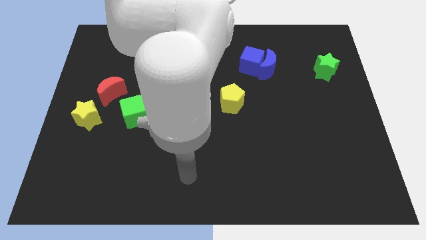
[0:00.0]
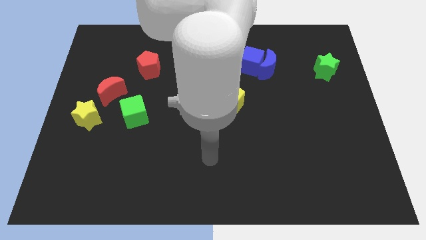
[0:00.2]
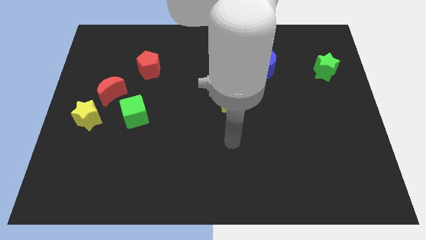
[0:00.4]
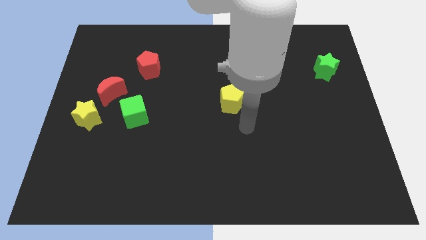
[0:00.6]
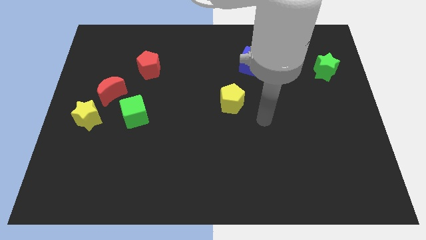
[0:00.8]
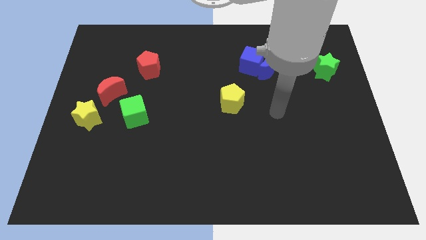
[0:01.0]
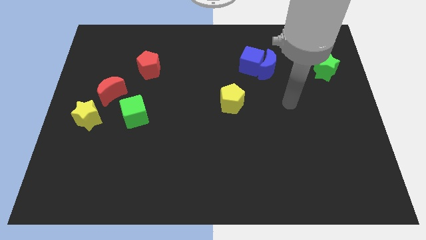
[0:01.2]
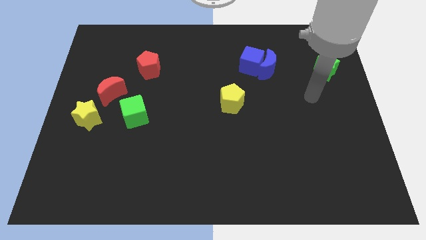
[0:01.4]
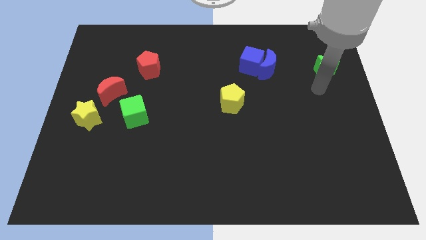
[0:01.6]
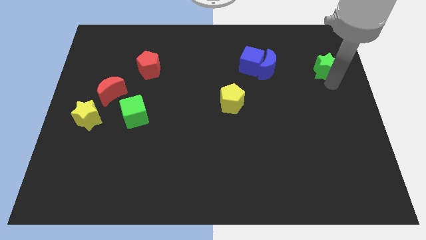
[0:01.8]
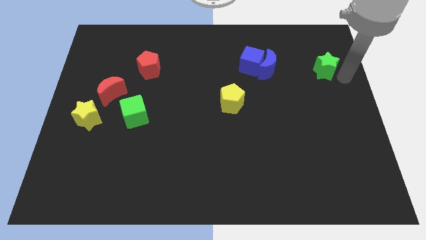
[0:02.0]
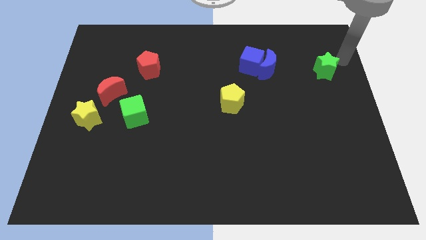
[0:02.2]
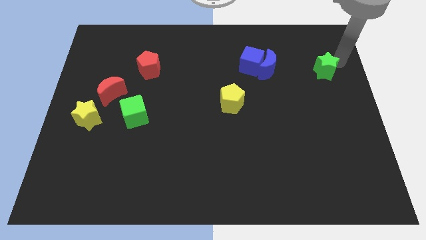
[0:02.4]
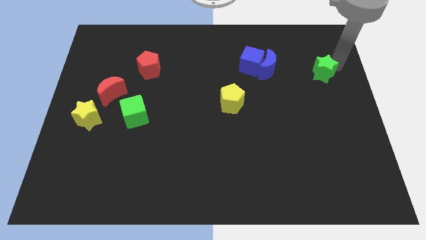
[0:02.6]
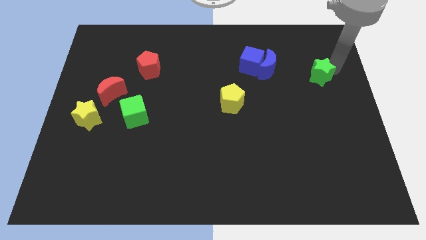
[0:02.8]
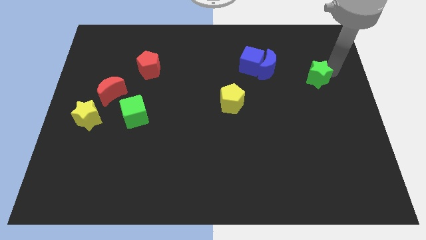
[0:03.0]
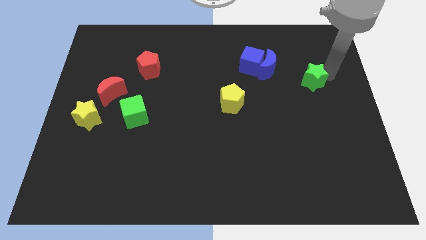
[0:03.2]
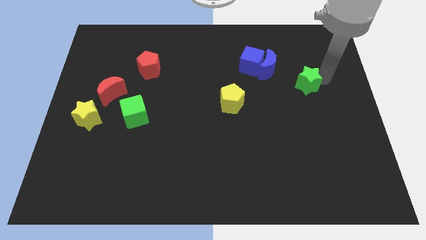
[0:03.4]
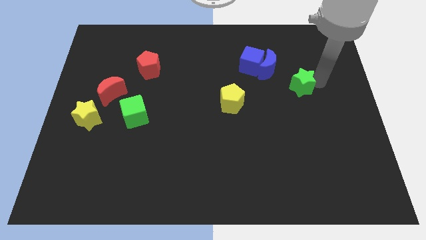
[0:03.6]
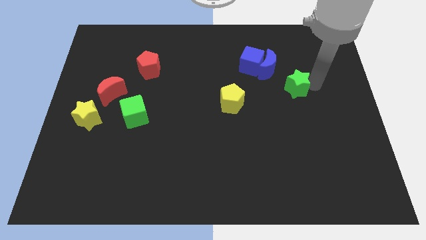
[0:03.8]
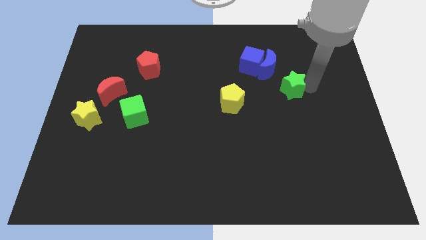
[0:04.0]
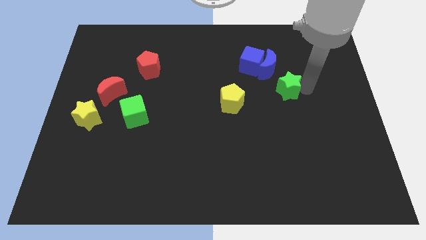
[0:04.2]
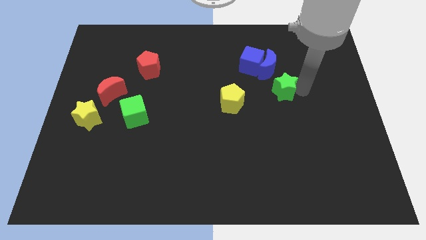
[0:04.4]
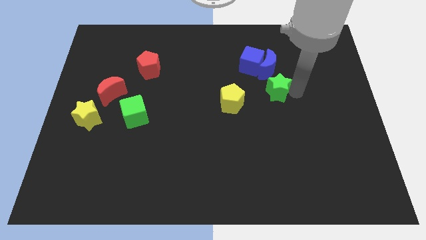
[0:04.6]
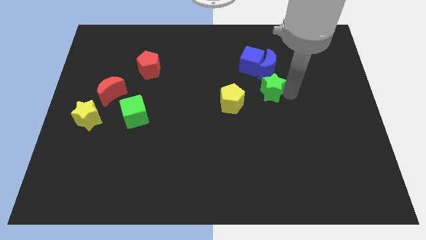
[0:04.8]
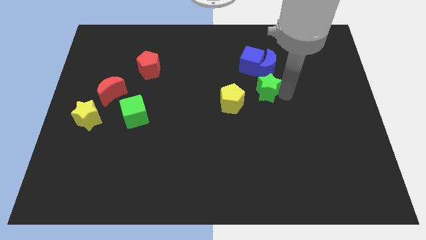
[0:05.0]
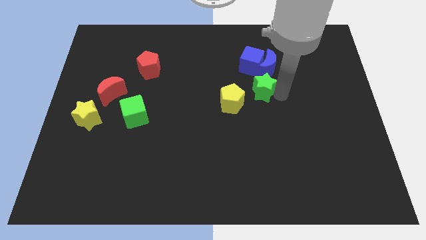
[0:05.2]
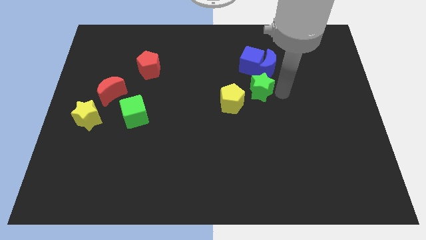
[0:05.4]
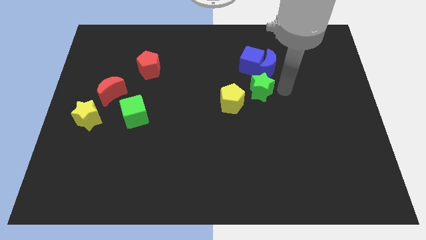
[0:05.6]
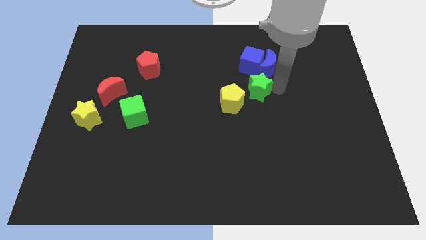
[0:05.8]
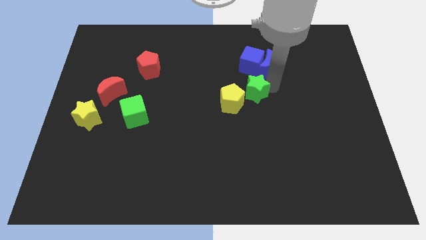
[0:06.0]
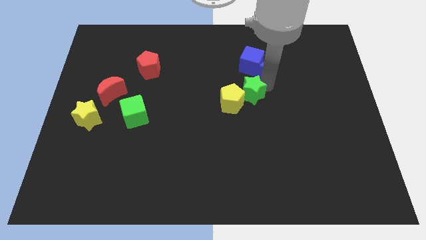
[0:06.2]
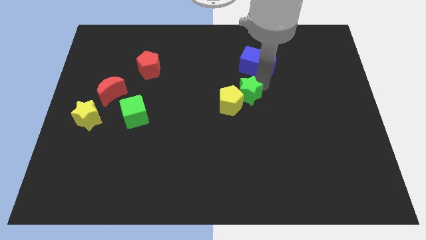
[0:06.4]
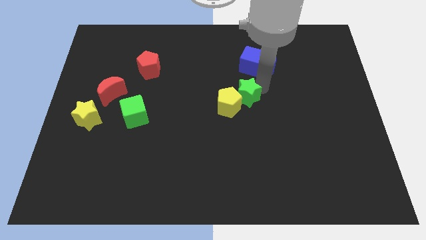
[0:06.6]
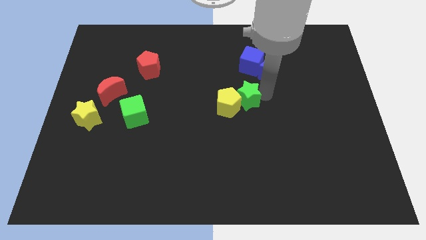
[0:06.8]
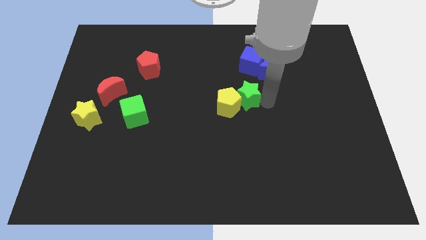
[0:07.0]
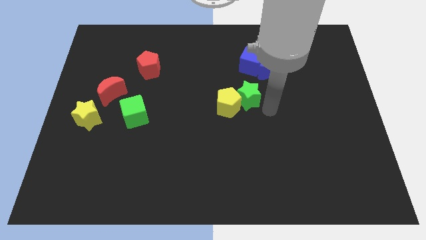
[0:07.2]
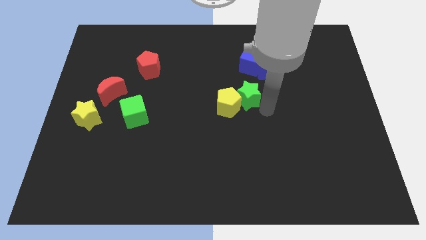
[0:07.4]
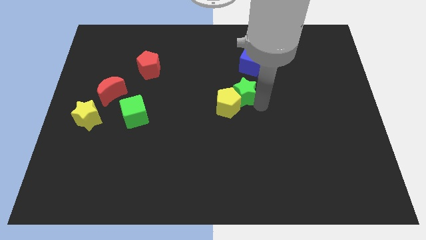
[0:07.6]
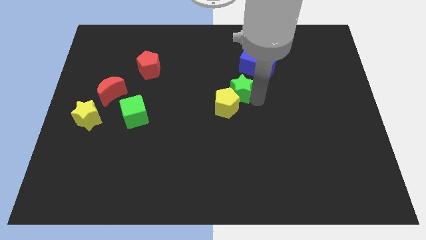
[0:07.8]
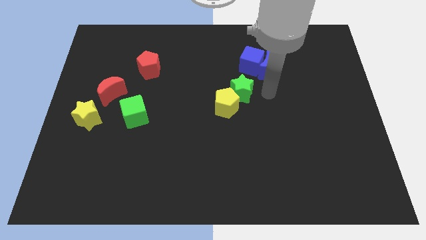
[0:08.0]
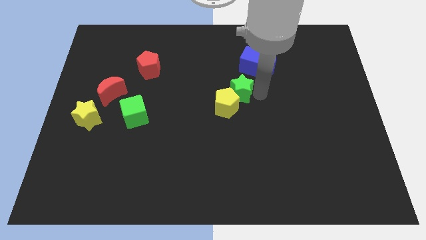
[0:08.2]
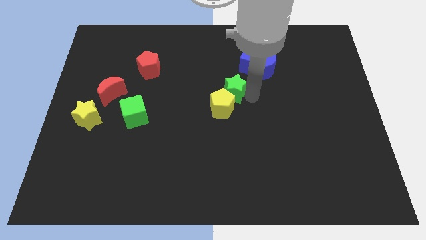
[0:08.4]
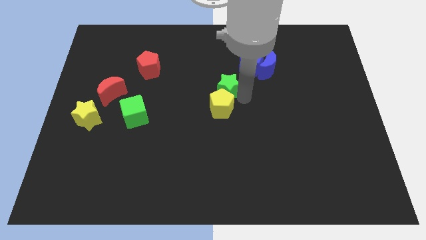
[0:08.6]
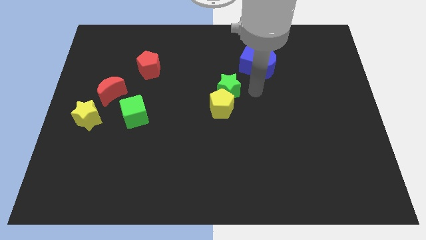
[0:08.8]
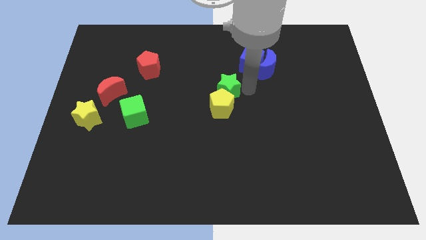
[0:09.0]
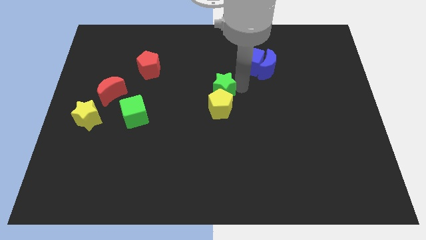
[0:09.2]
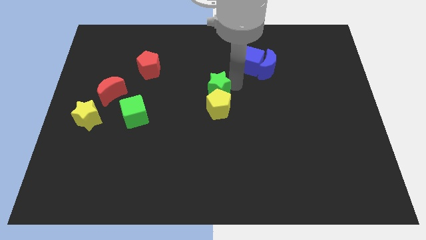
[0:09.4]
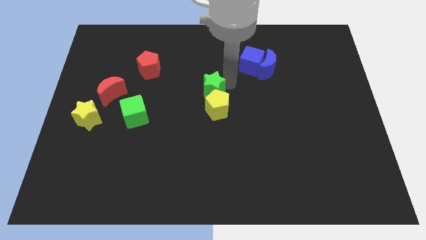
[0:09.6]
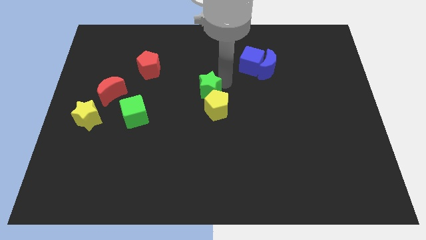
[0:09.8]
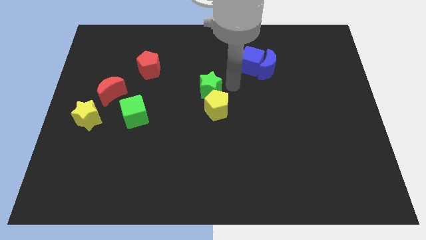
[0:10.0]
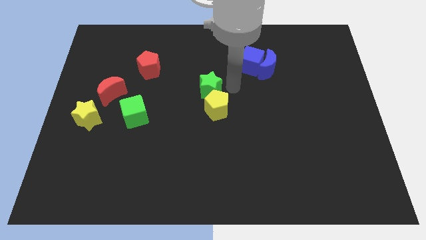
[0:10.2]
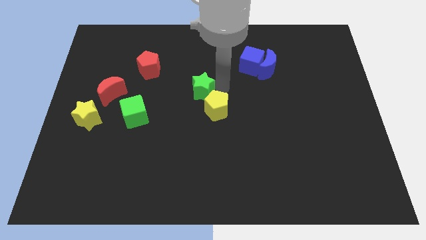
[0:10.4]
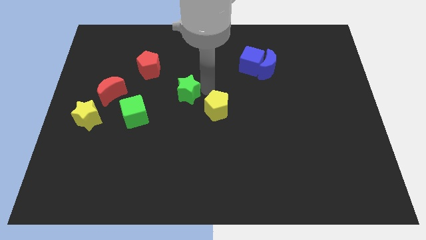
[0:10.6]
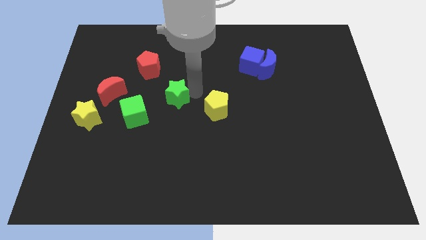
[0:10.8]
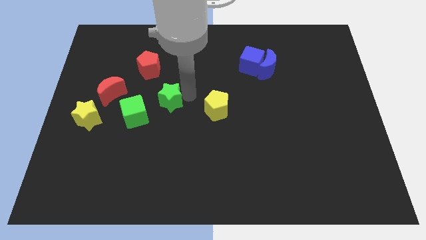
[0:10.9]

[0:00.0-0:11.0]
put the green star to the right of the red moon

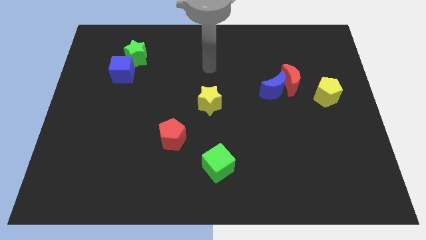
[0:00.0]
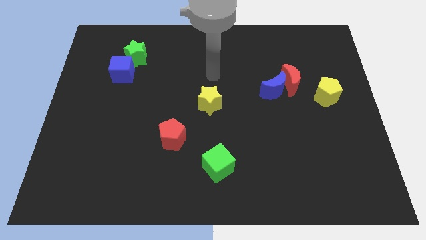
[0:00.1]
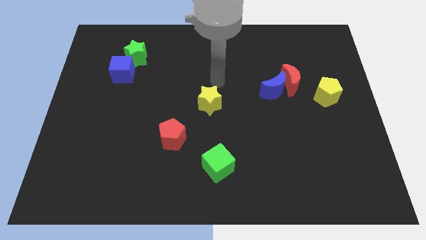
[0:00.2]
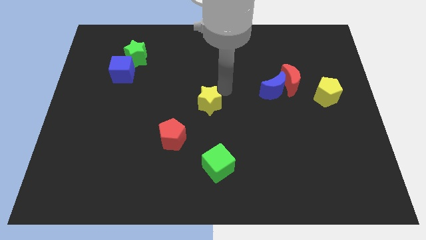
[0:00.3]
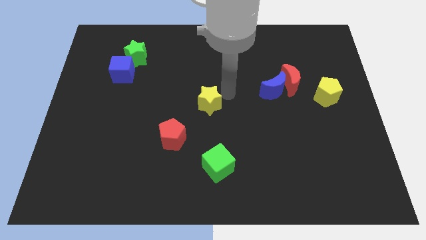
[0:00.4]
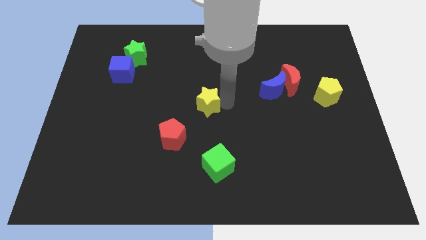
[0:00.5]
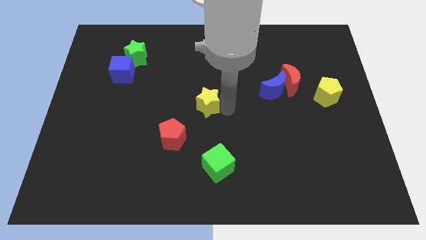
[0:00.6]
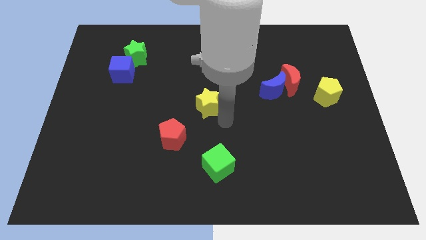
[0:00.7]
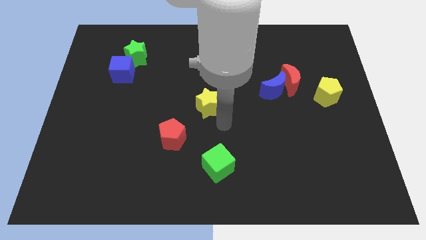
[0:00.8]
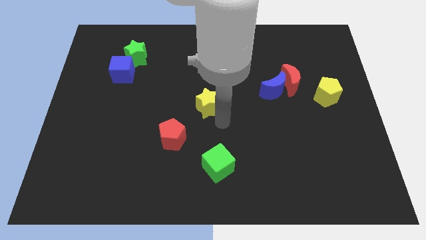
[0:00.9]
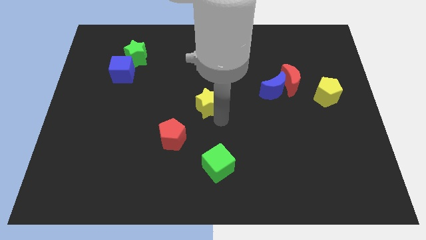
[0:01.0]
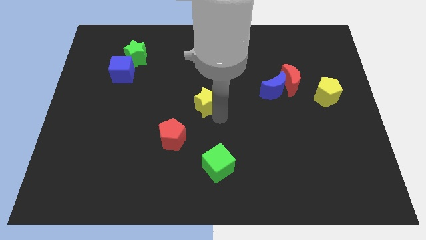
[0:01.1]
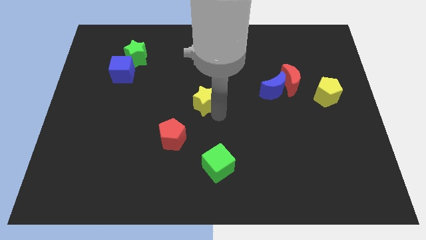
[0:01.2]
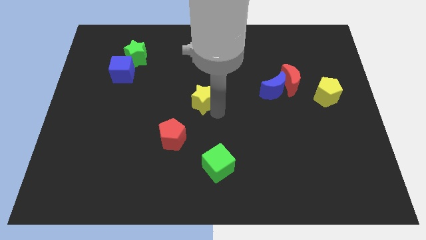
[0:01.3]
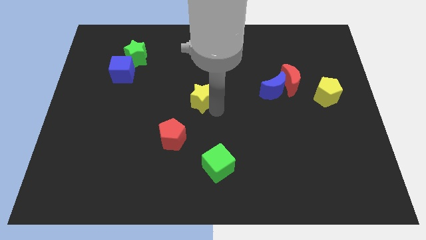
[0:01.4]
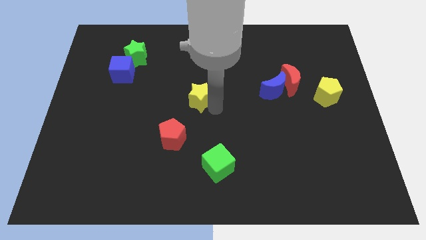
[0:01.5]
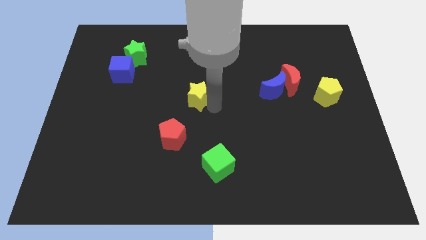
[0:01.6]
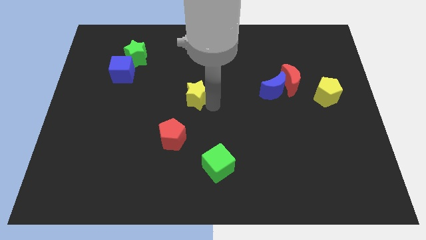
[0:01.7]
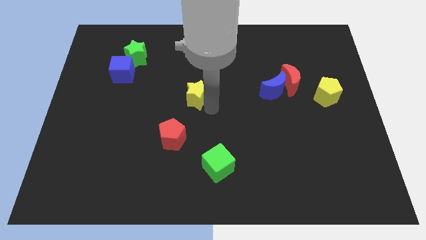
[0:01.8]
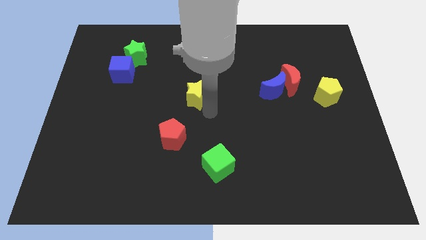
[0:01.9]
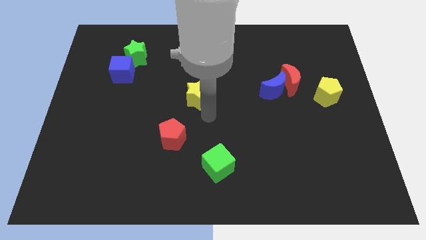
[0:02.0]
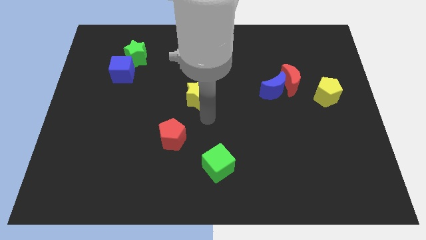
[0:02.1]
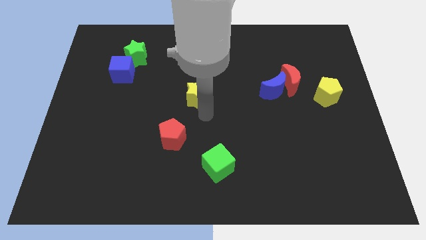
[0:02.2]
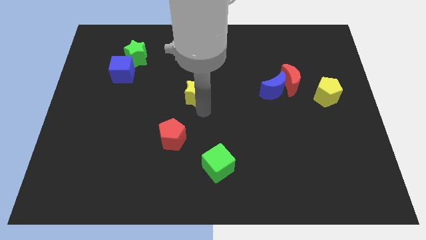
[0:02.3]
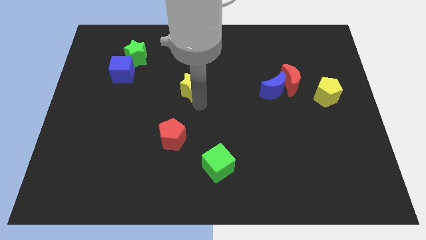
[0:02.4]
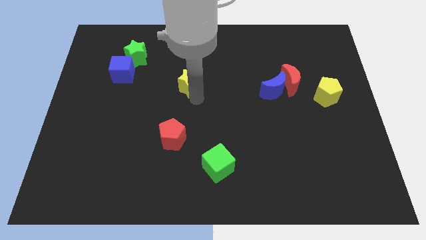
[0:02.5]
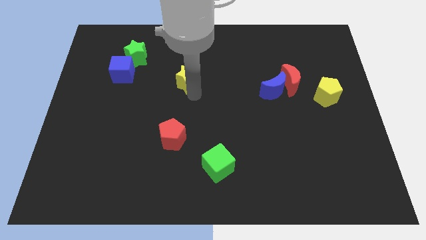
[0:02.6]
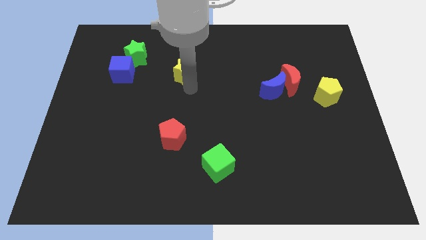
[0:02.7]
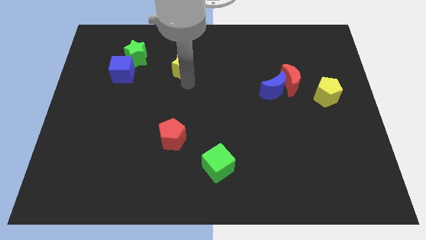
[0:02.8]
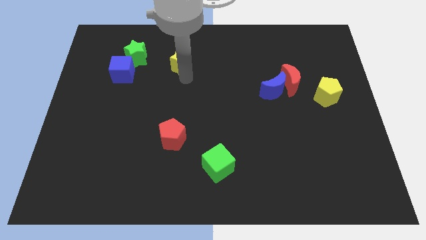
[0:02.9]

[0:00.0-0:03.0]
push the yellow star to the right side of the green star
